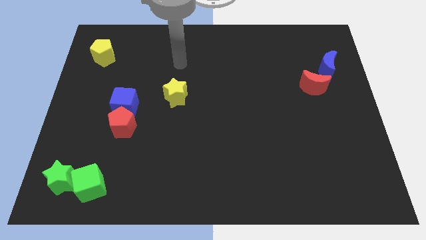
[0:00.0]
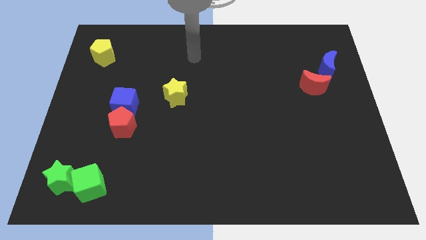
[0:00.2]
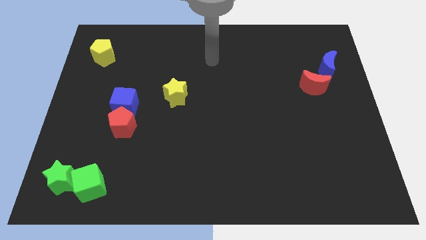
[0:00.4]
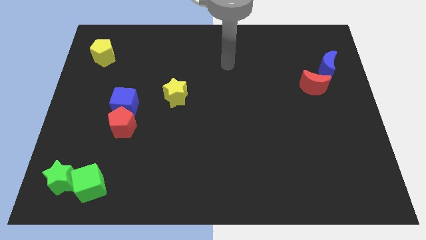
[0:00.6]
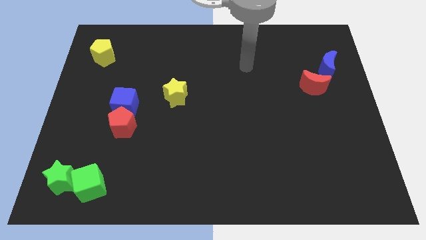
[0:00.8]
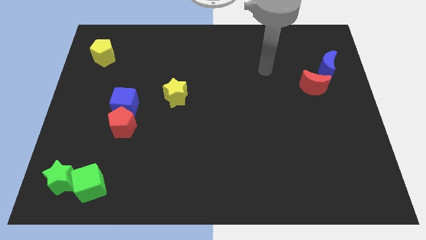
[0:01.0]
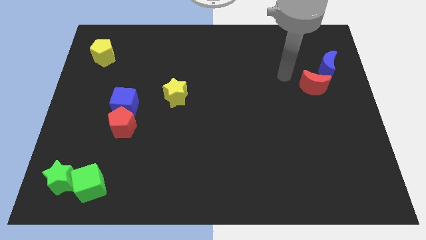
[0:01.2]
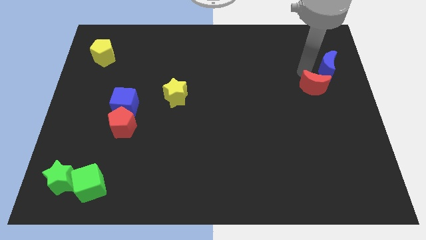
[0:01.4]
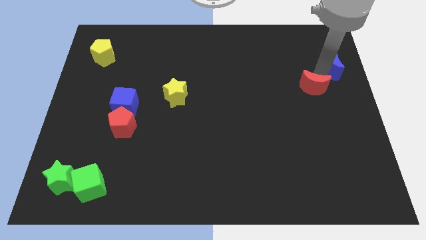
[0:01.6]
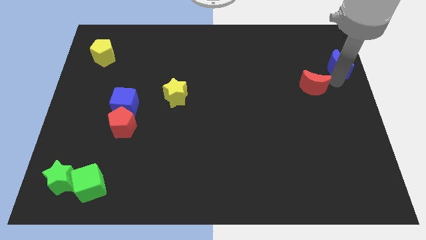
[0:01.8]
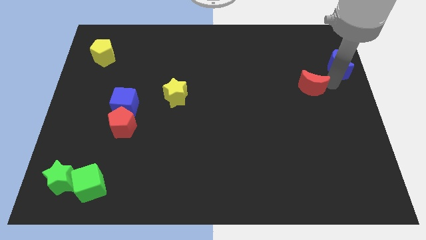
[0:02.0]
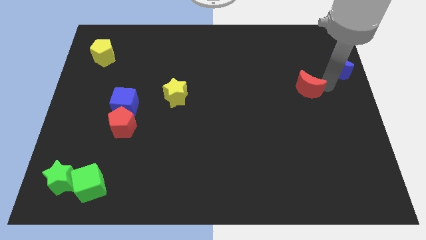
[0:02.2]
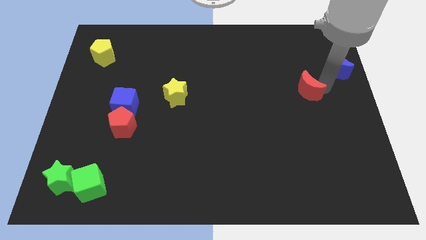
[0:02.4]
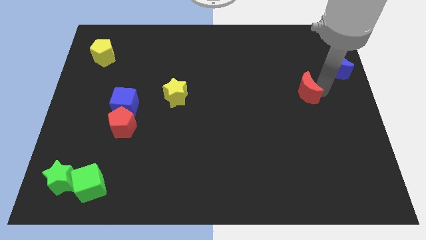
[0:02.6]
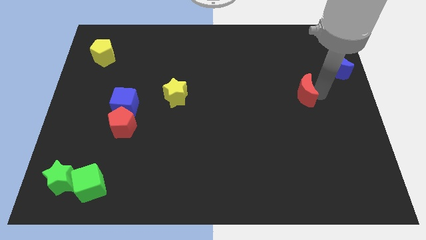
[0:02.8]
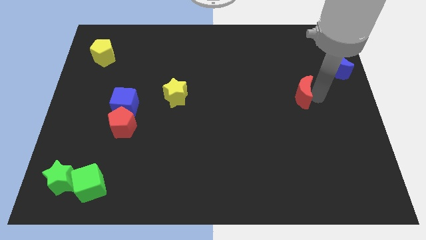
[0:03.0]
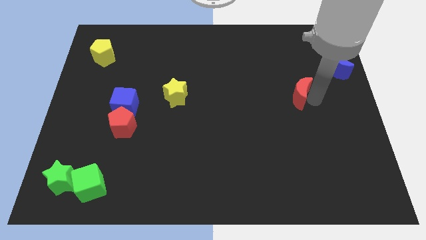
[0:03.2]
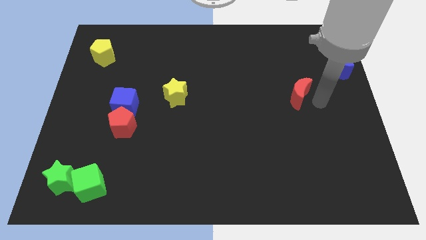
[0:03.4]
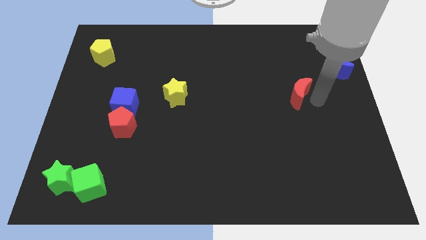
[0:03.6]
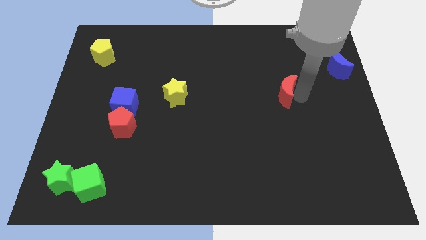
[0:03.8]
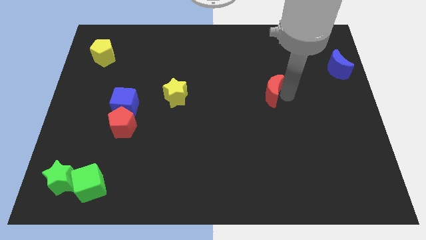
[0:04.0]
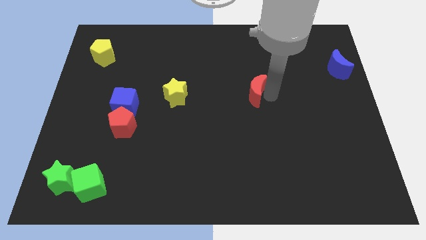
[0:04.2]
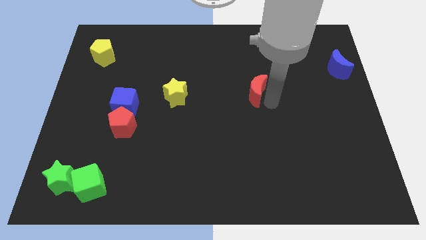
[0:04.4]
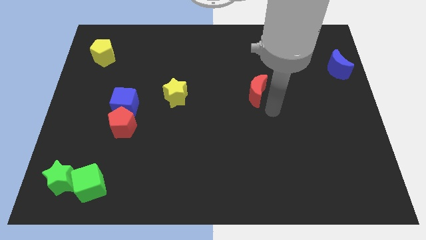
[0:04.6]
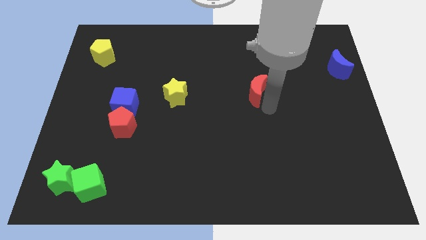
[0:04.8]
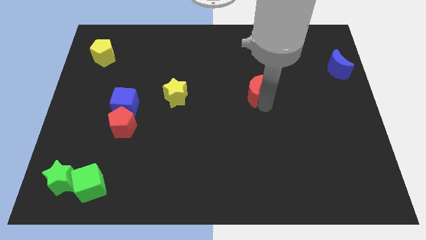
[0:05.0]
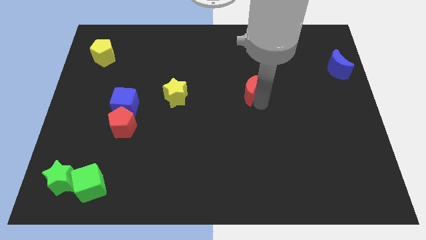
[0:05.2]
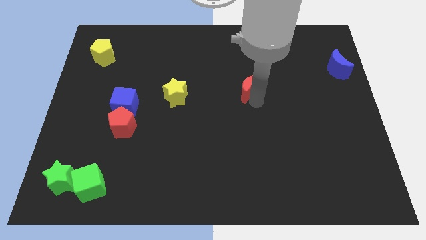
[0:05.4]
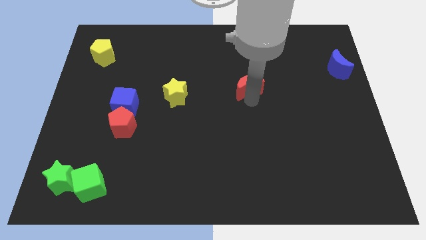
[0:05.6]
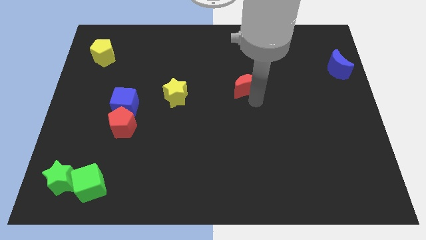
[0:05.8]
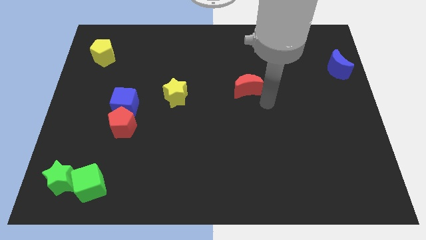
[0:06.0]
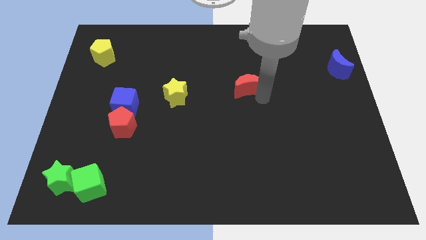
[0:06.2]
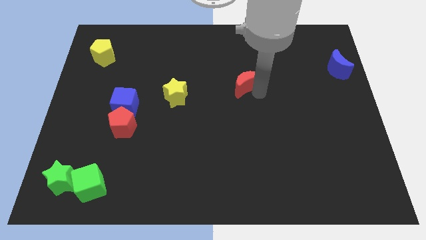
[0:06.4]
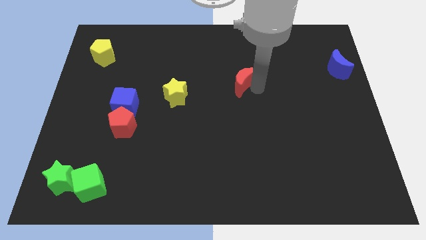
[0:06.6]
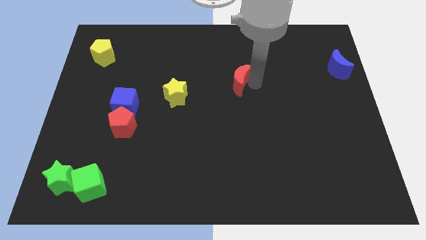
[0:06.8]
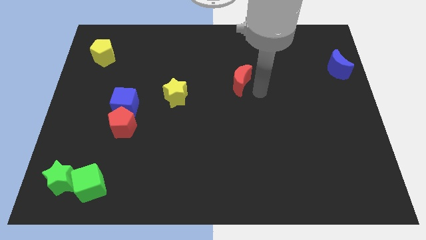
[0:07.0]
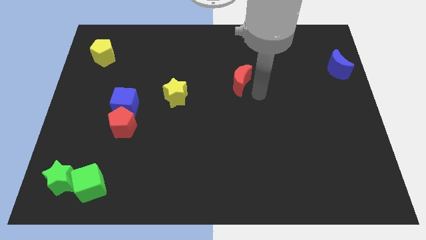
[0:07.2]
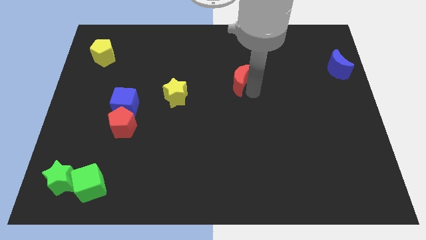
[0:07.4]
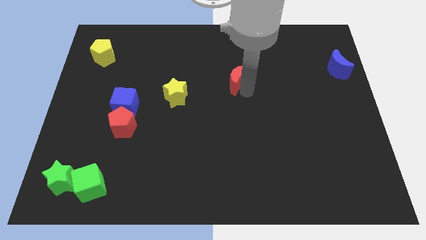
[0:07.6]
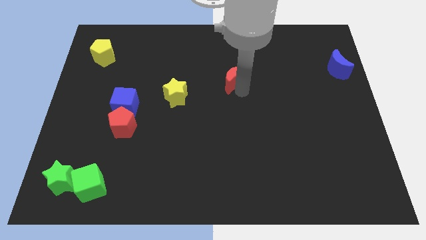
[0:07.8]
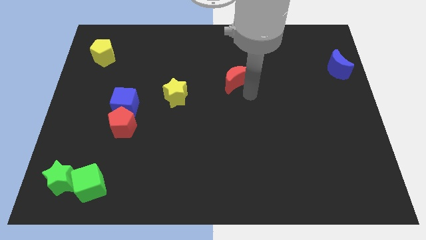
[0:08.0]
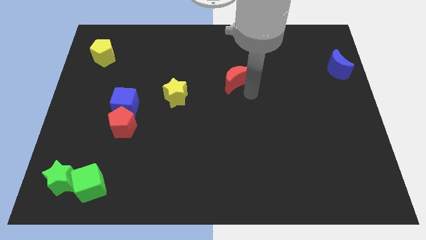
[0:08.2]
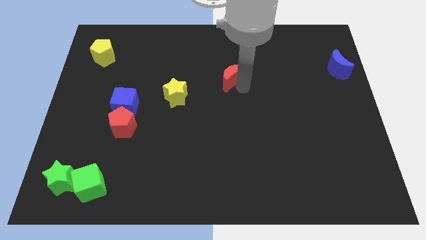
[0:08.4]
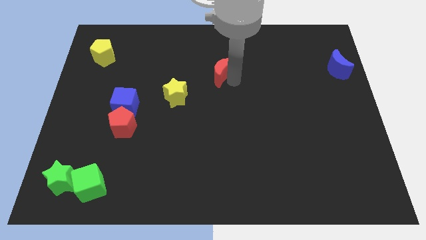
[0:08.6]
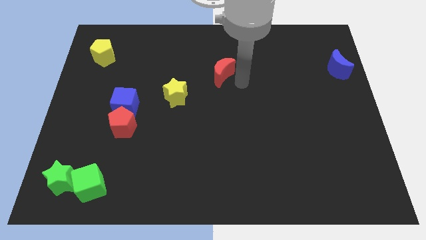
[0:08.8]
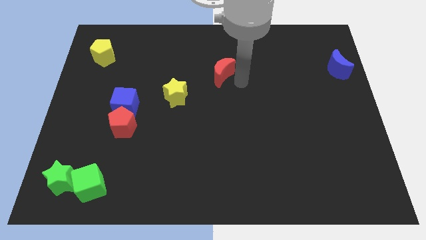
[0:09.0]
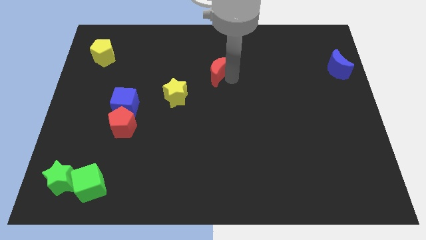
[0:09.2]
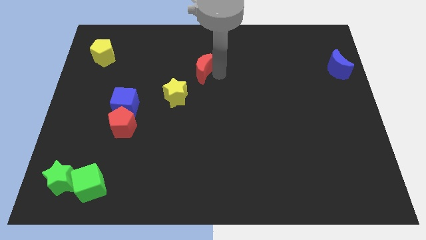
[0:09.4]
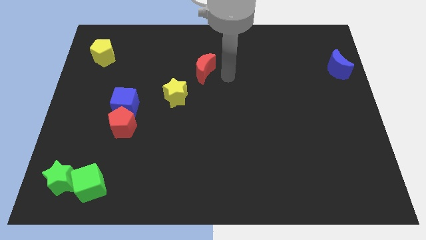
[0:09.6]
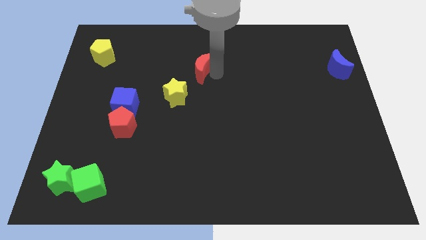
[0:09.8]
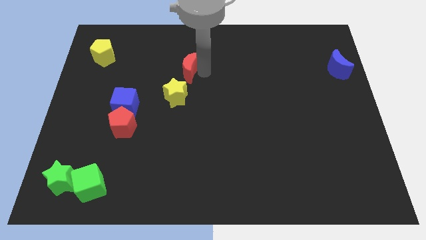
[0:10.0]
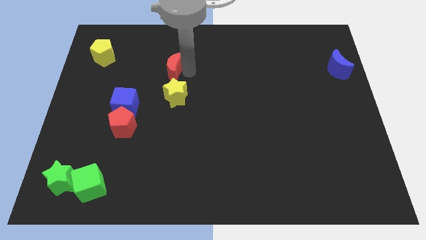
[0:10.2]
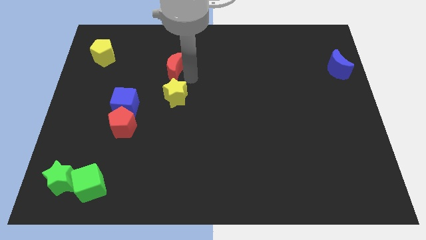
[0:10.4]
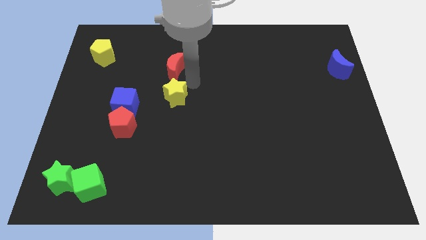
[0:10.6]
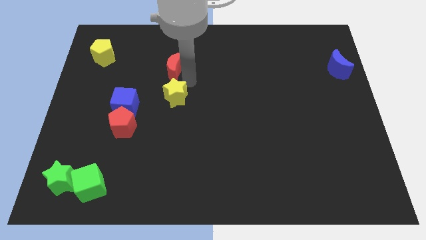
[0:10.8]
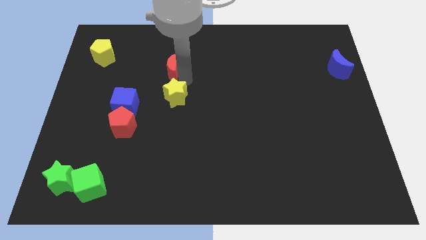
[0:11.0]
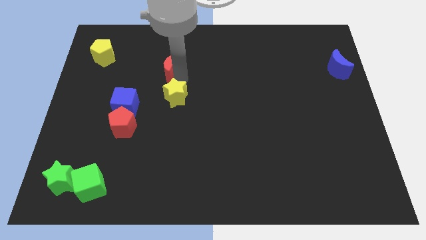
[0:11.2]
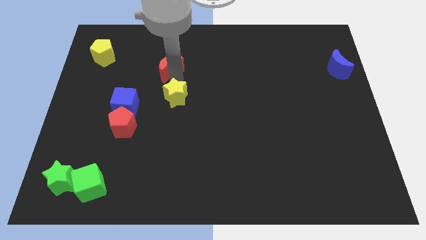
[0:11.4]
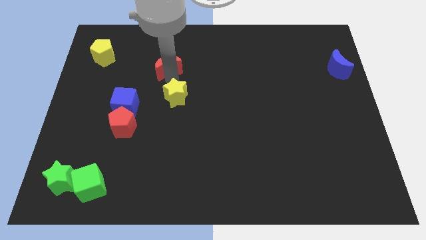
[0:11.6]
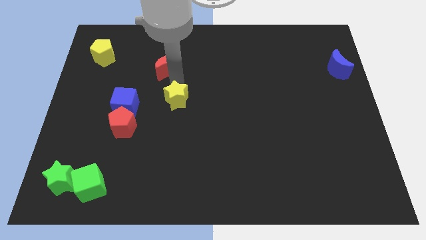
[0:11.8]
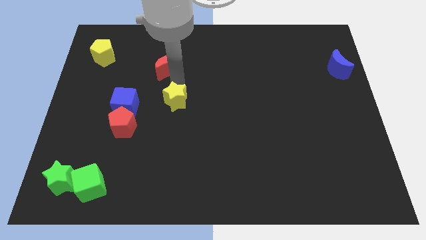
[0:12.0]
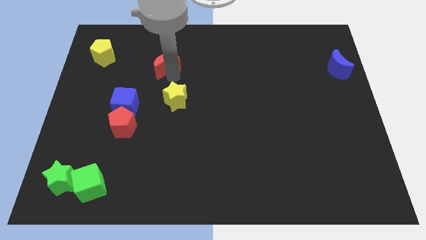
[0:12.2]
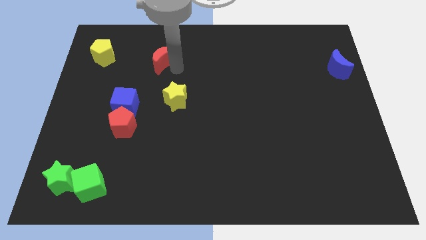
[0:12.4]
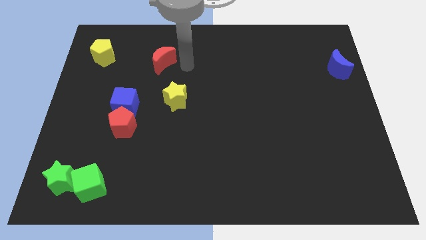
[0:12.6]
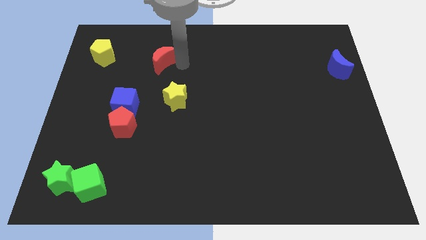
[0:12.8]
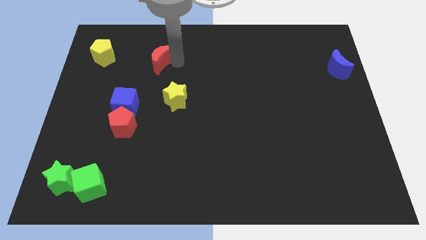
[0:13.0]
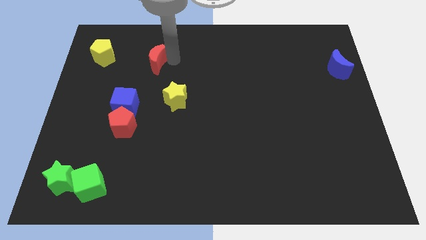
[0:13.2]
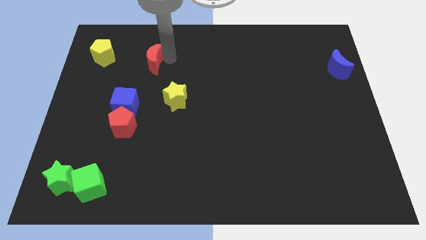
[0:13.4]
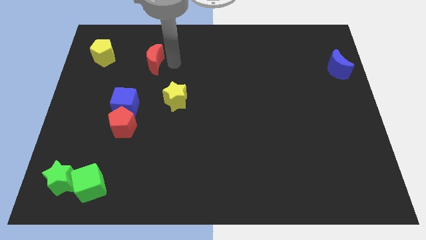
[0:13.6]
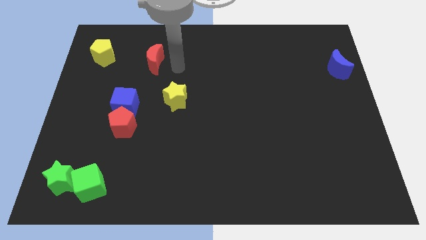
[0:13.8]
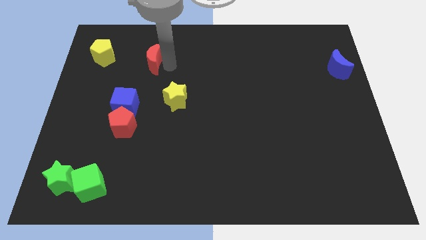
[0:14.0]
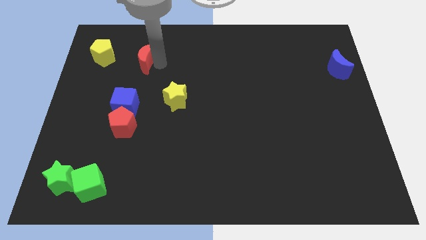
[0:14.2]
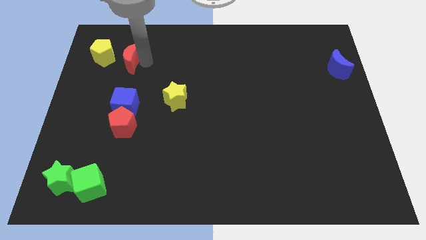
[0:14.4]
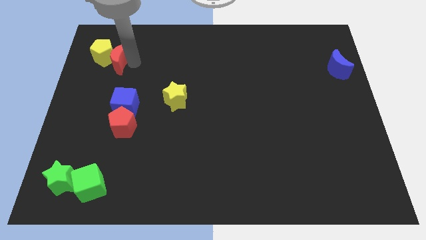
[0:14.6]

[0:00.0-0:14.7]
slide the red moon towards the yellow pentagon
